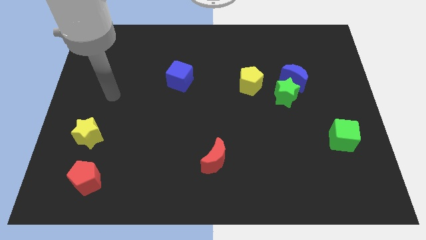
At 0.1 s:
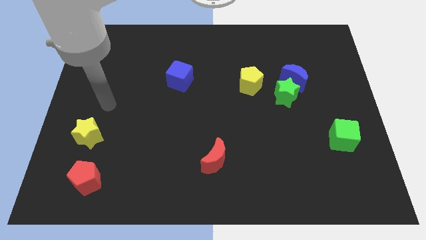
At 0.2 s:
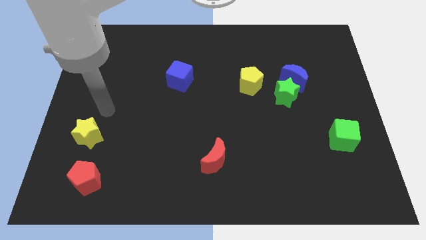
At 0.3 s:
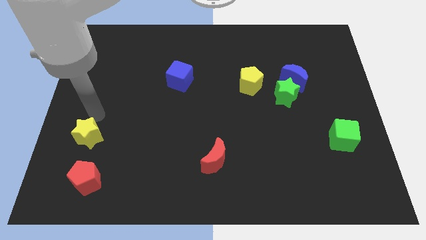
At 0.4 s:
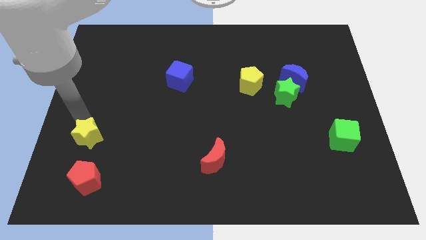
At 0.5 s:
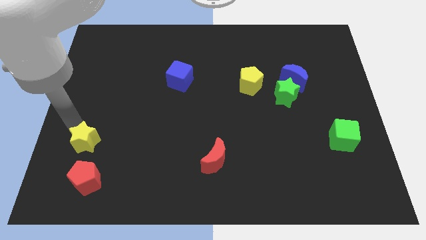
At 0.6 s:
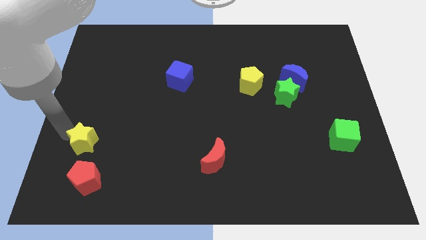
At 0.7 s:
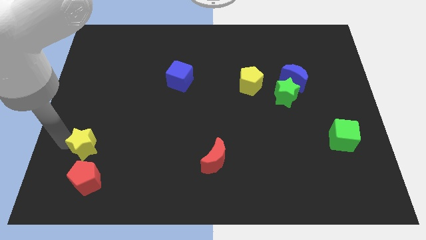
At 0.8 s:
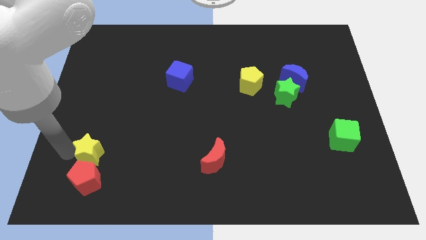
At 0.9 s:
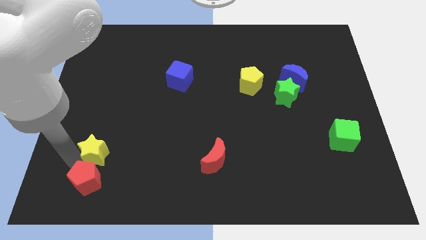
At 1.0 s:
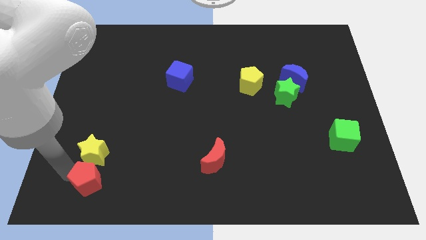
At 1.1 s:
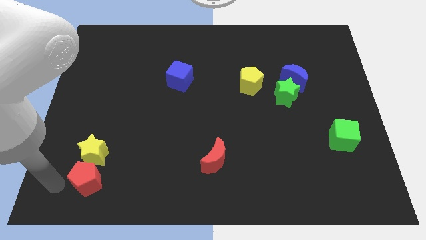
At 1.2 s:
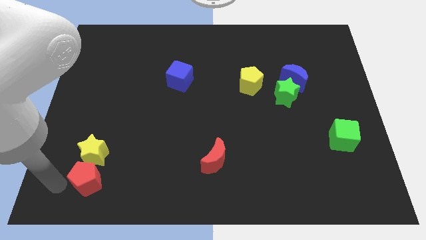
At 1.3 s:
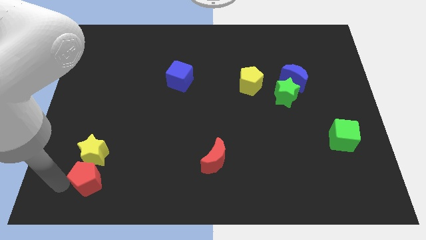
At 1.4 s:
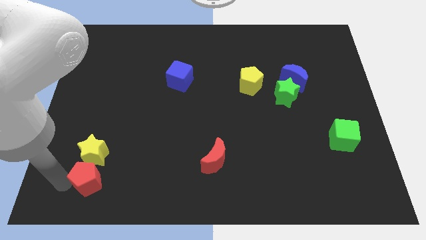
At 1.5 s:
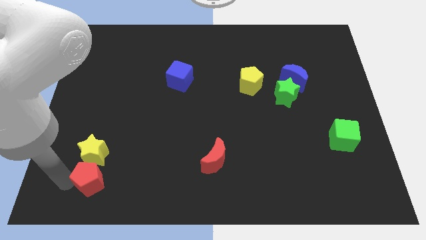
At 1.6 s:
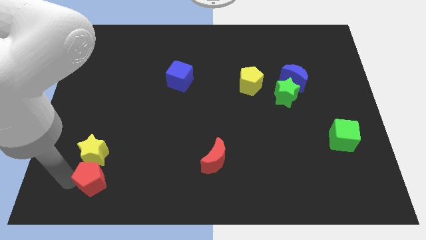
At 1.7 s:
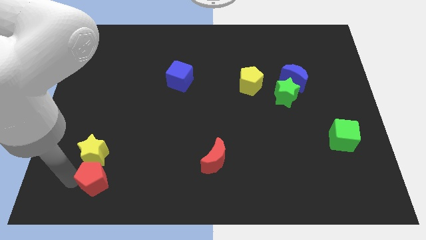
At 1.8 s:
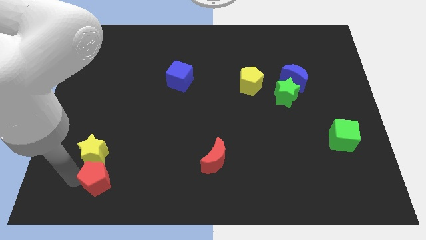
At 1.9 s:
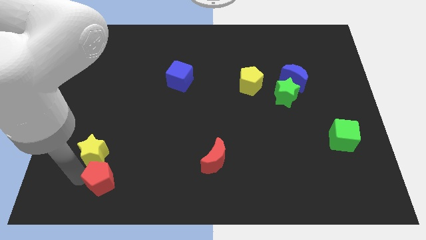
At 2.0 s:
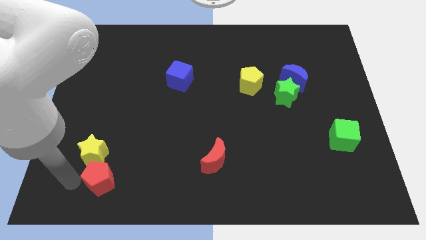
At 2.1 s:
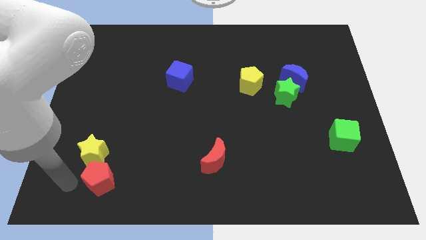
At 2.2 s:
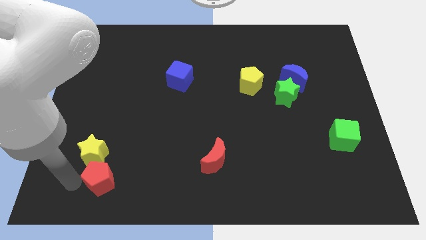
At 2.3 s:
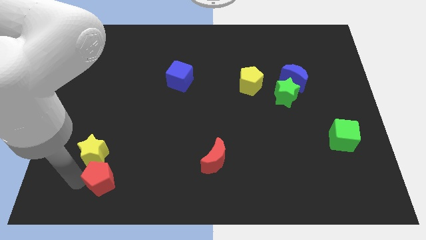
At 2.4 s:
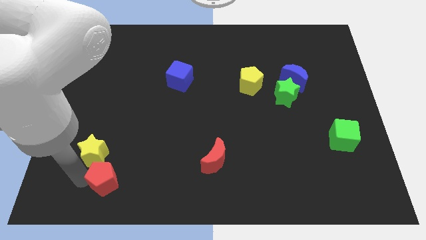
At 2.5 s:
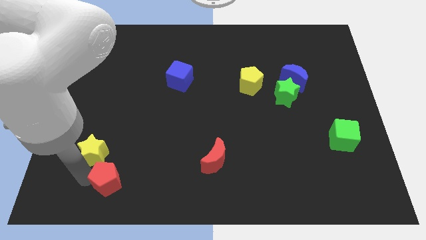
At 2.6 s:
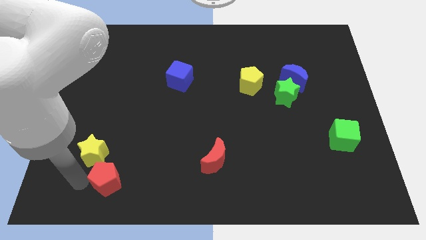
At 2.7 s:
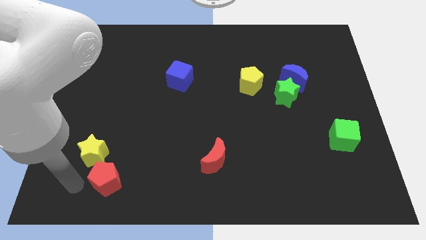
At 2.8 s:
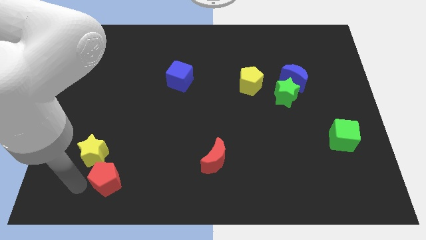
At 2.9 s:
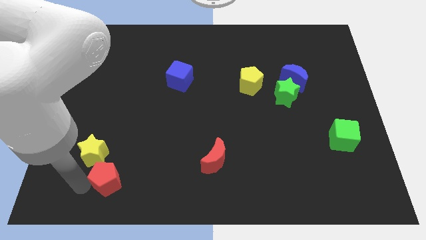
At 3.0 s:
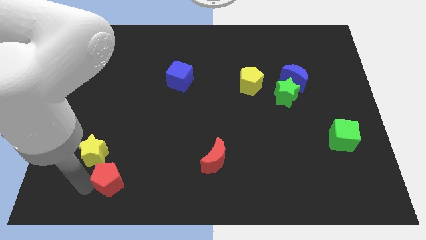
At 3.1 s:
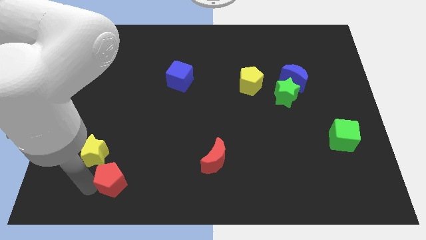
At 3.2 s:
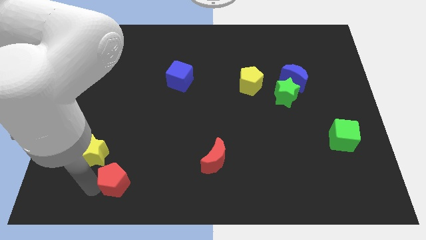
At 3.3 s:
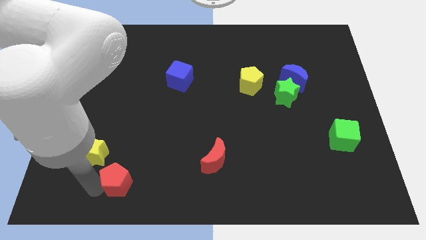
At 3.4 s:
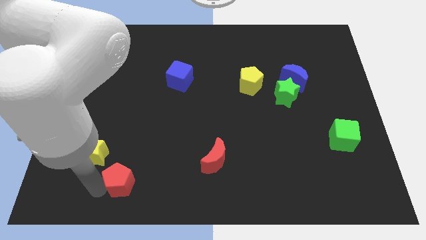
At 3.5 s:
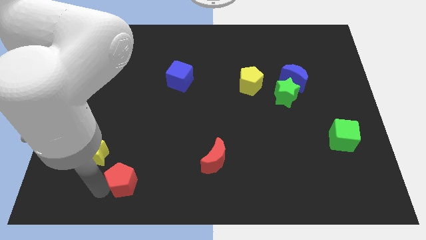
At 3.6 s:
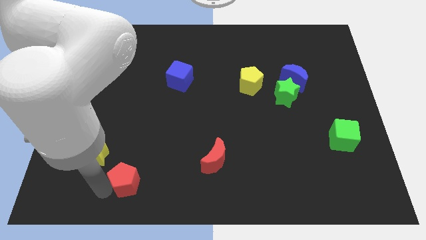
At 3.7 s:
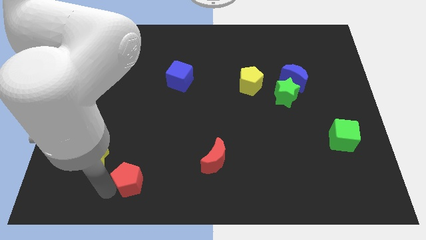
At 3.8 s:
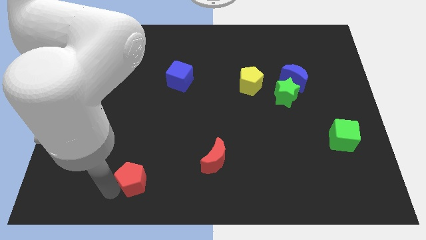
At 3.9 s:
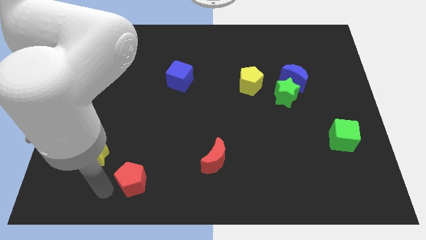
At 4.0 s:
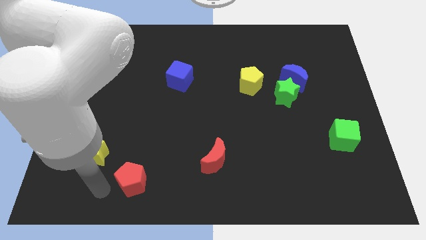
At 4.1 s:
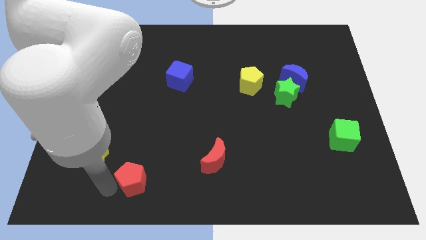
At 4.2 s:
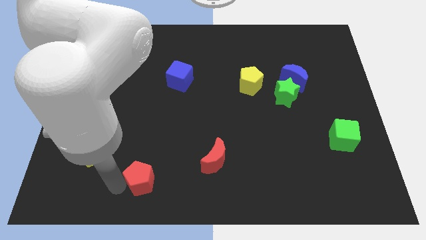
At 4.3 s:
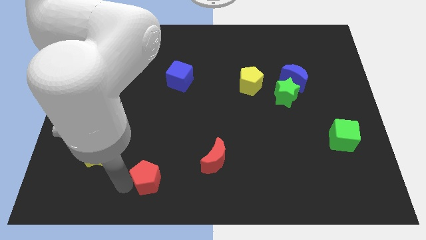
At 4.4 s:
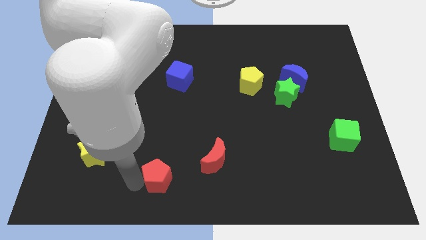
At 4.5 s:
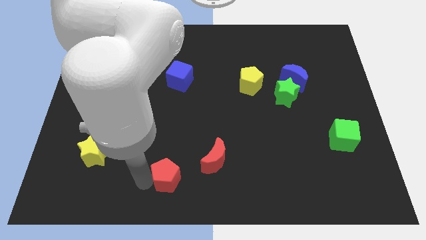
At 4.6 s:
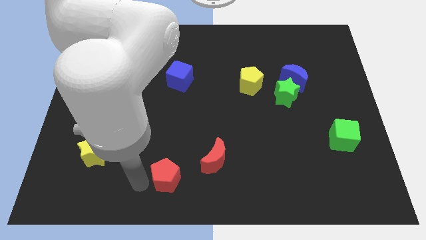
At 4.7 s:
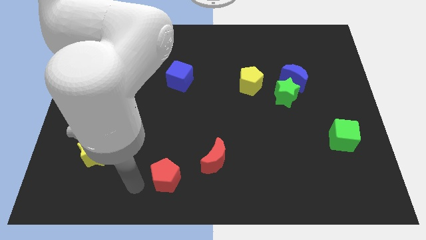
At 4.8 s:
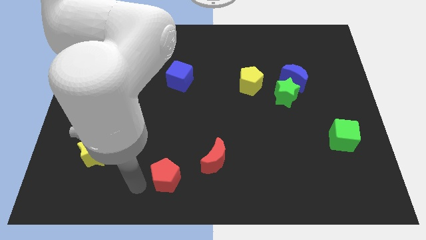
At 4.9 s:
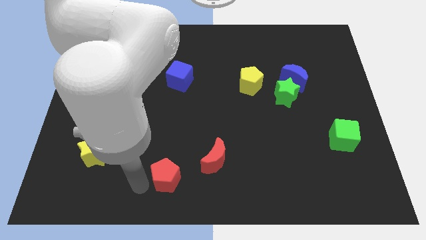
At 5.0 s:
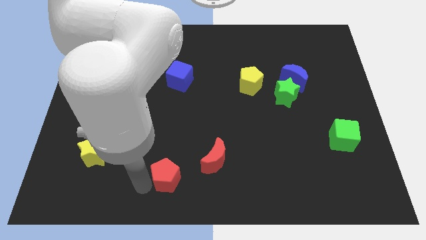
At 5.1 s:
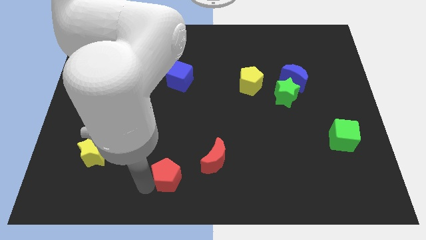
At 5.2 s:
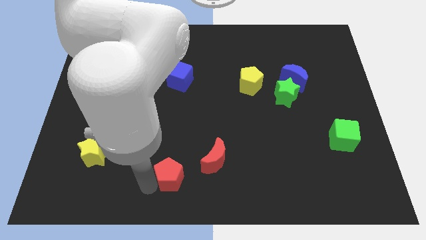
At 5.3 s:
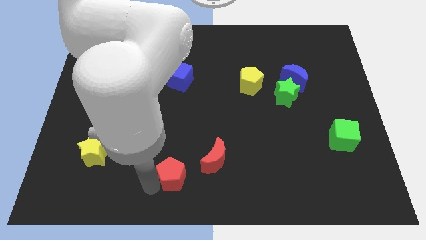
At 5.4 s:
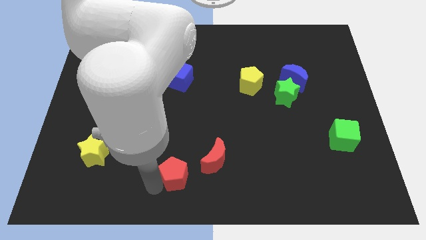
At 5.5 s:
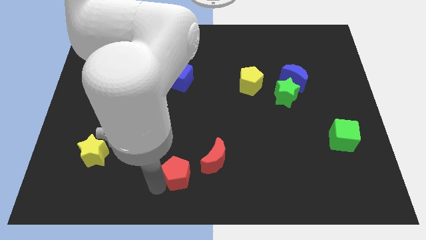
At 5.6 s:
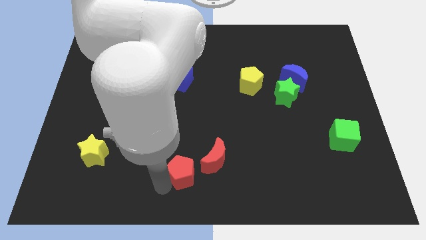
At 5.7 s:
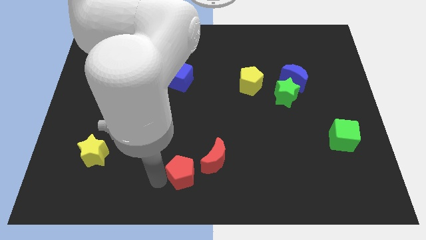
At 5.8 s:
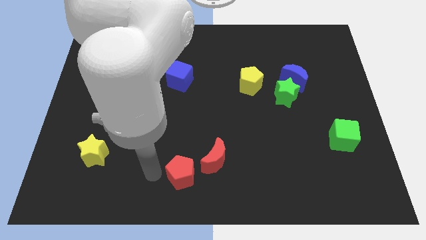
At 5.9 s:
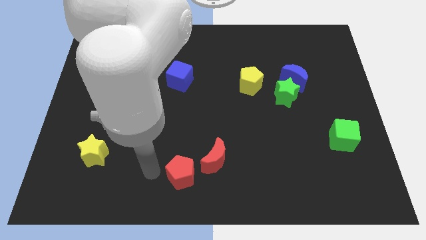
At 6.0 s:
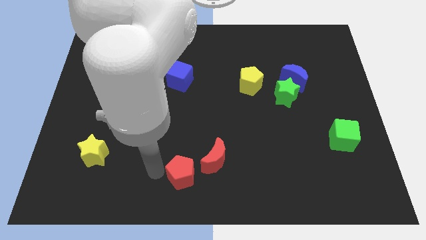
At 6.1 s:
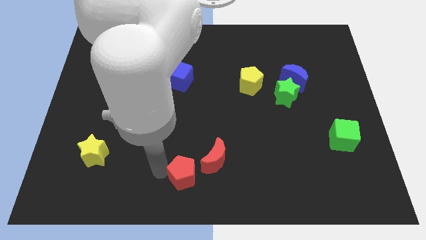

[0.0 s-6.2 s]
move the red pentagon right

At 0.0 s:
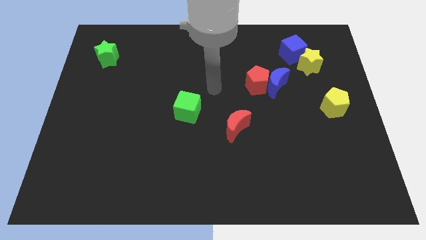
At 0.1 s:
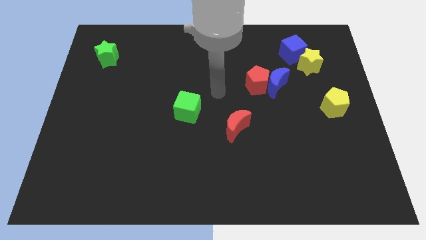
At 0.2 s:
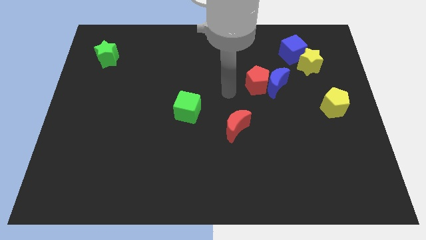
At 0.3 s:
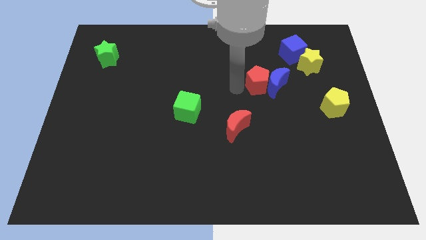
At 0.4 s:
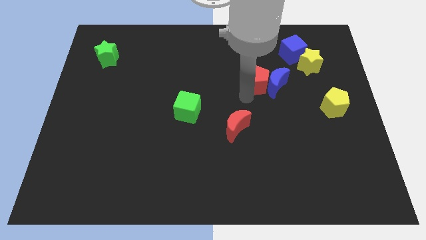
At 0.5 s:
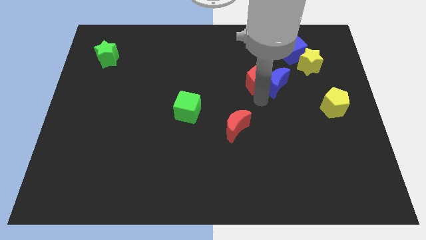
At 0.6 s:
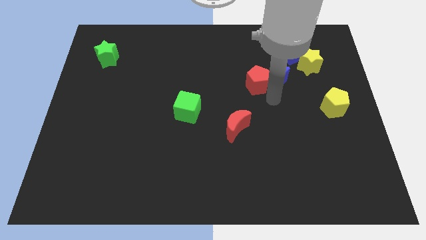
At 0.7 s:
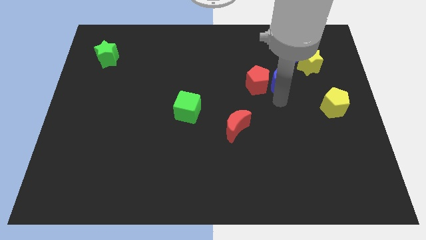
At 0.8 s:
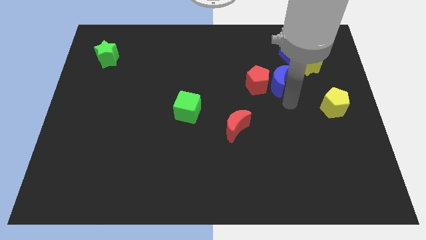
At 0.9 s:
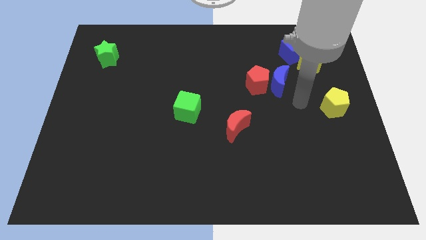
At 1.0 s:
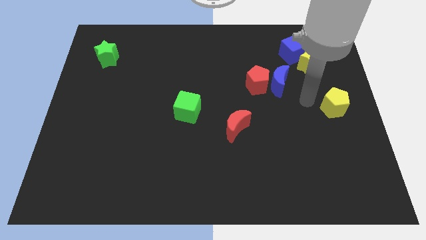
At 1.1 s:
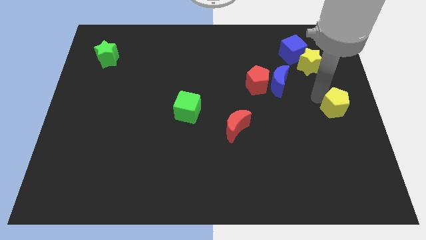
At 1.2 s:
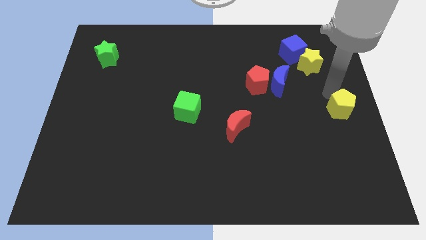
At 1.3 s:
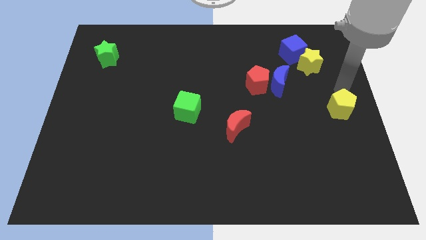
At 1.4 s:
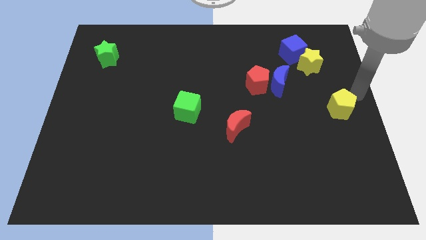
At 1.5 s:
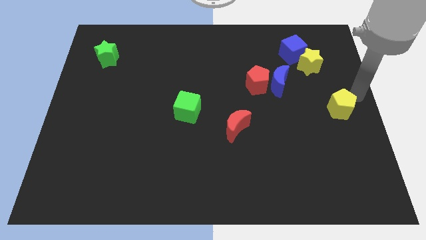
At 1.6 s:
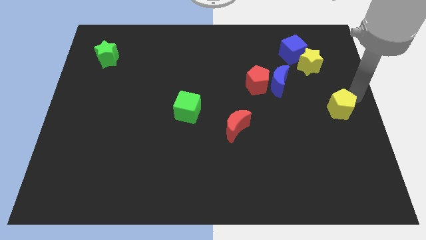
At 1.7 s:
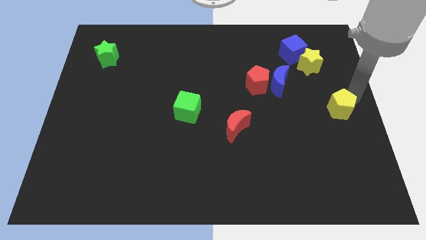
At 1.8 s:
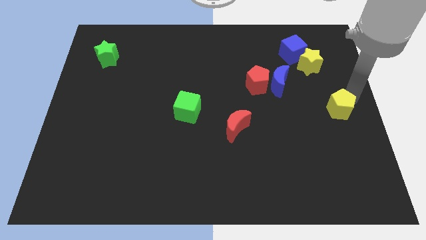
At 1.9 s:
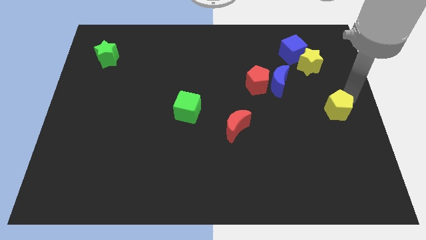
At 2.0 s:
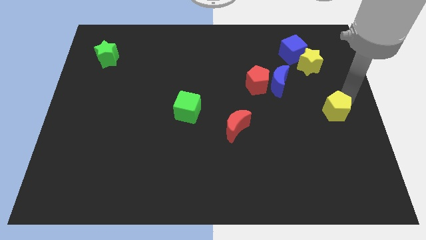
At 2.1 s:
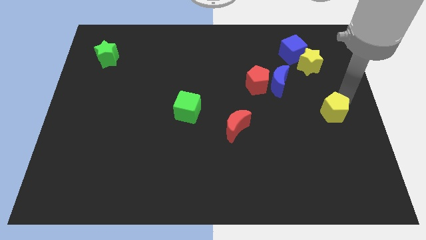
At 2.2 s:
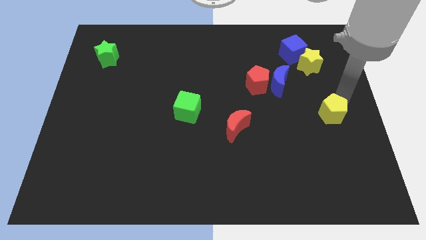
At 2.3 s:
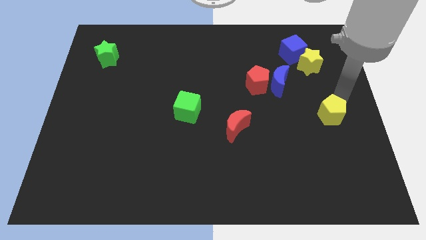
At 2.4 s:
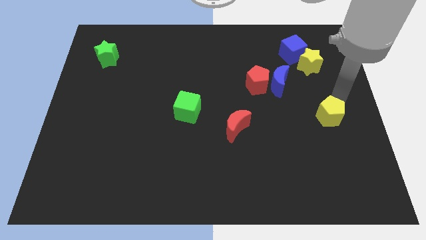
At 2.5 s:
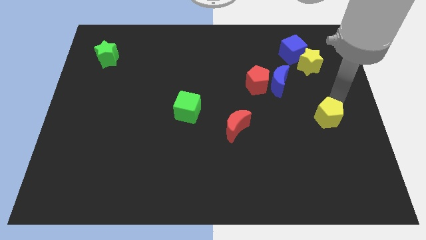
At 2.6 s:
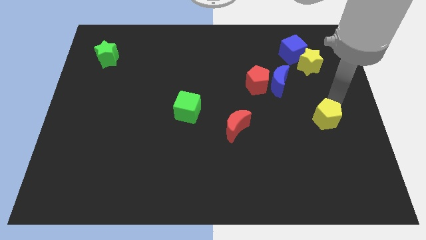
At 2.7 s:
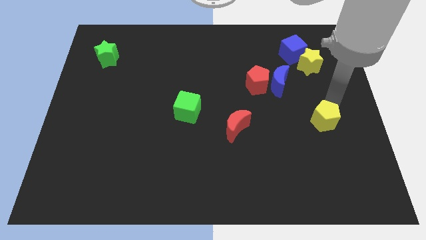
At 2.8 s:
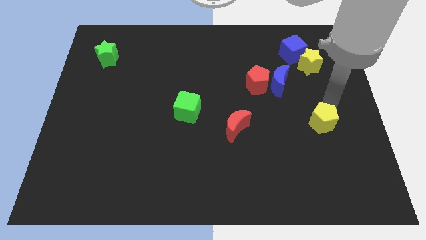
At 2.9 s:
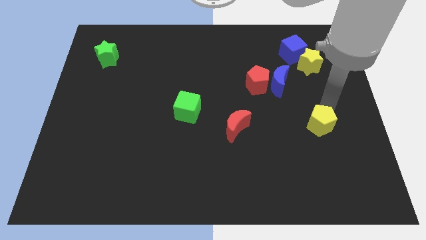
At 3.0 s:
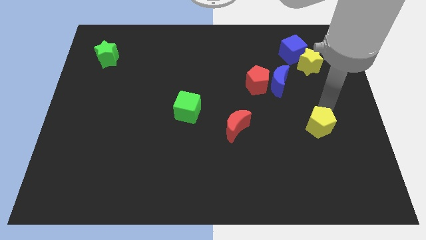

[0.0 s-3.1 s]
slightly move the yellow pentagon diagonally downwards and left
